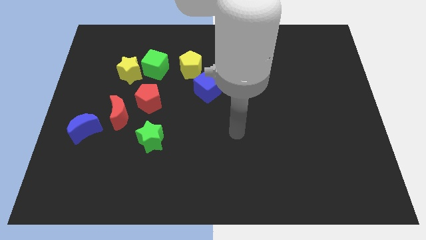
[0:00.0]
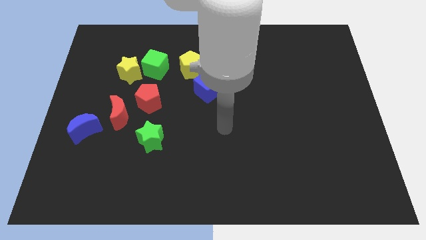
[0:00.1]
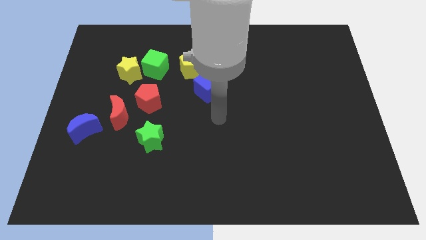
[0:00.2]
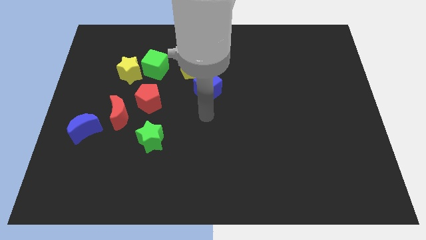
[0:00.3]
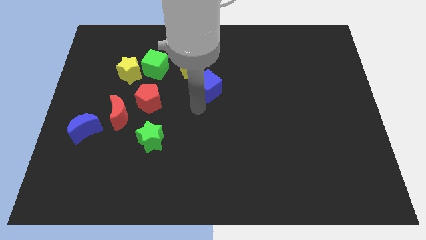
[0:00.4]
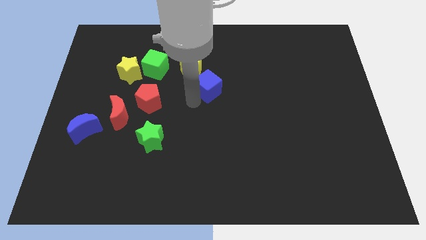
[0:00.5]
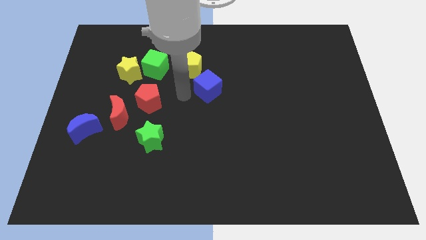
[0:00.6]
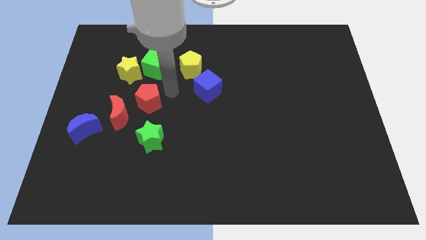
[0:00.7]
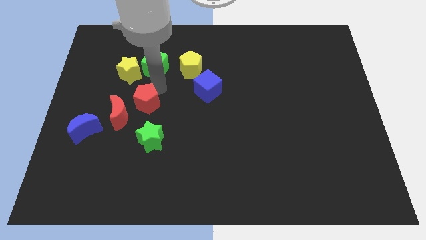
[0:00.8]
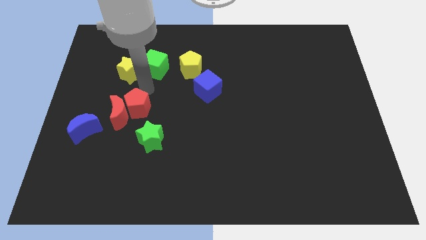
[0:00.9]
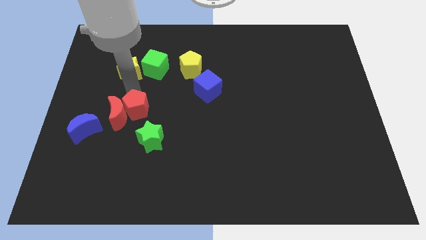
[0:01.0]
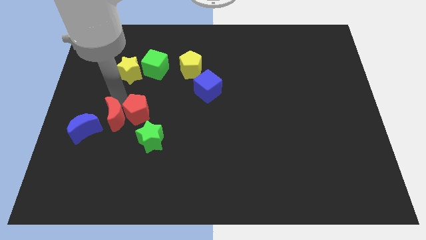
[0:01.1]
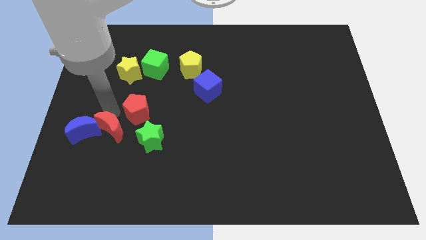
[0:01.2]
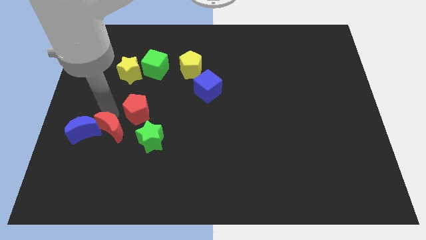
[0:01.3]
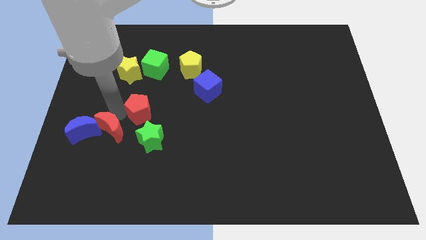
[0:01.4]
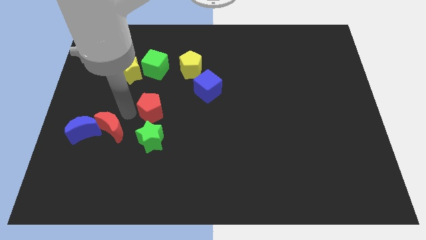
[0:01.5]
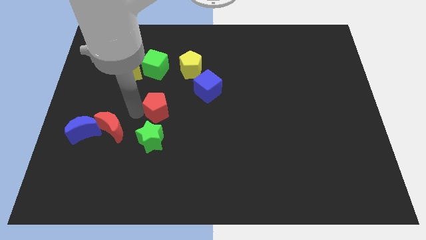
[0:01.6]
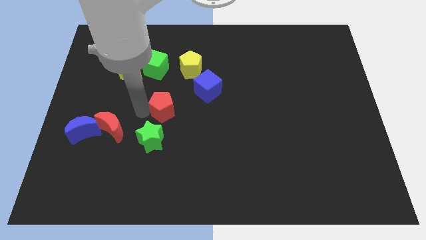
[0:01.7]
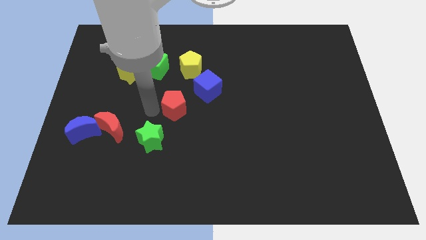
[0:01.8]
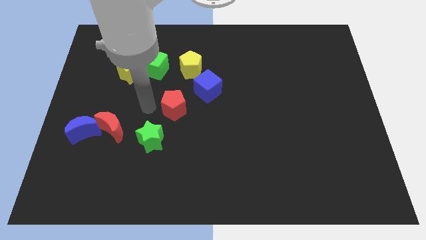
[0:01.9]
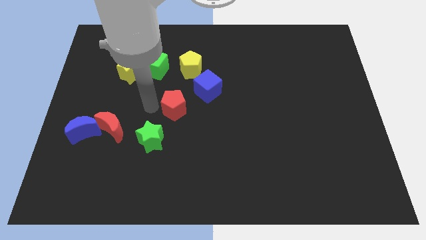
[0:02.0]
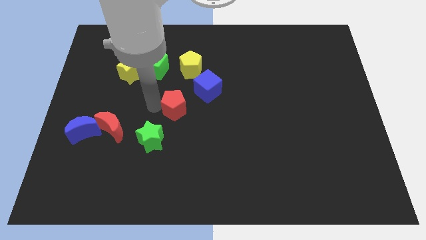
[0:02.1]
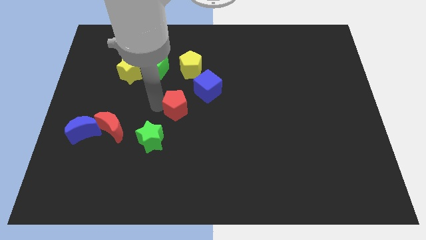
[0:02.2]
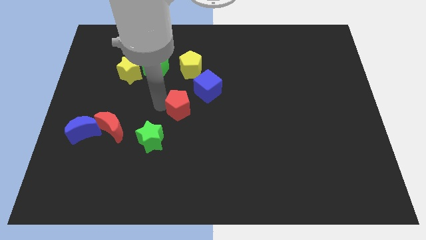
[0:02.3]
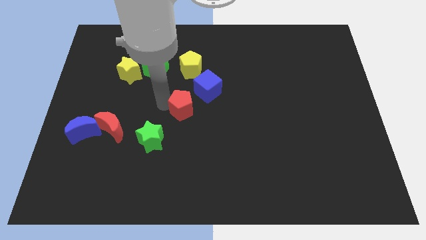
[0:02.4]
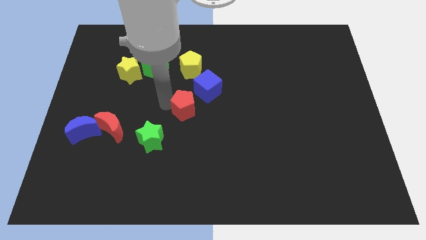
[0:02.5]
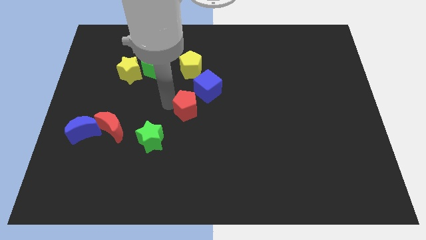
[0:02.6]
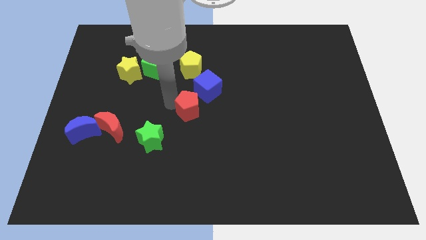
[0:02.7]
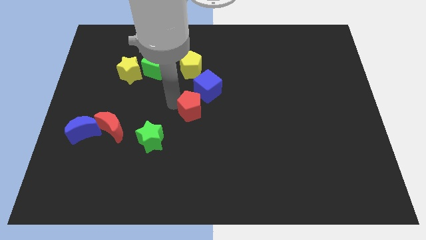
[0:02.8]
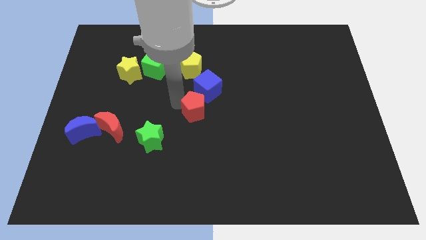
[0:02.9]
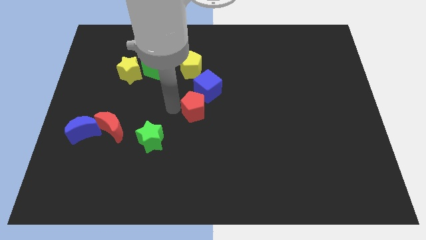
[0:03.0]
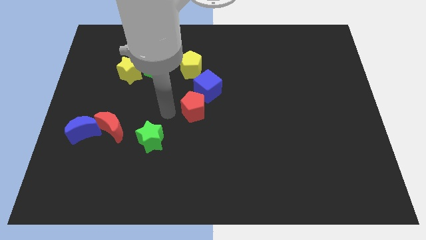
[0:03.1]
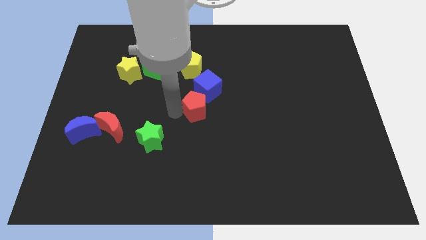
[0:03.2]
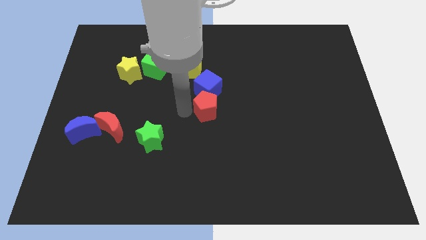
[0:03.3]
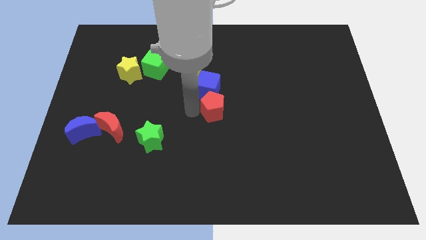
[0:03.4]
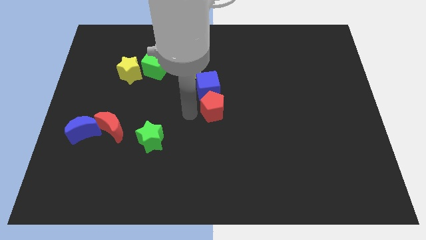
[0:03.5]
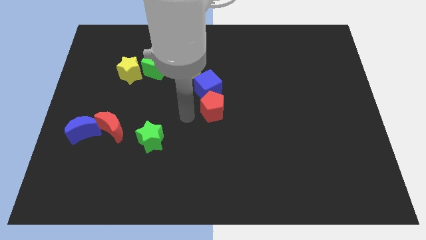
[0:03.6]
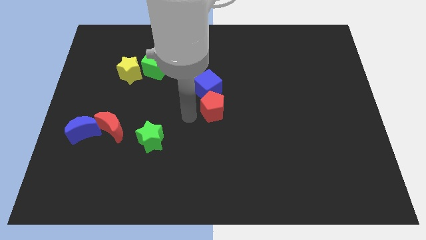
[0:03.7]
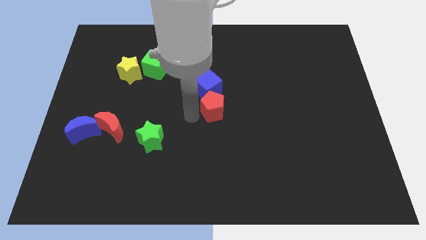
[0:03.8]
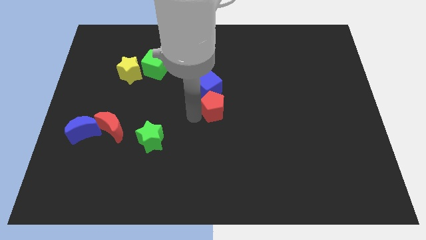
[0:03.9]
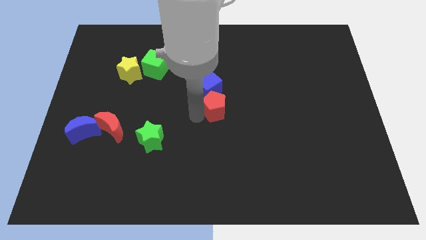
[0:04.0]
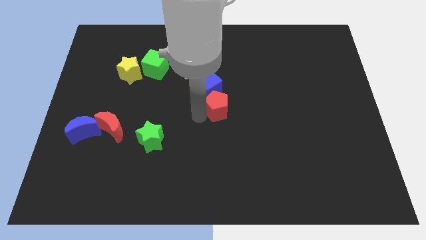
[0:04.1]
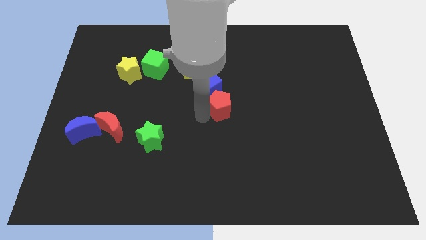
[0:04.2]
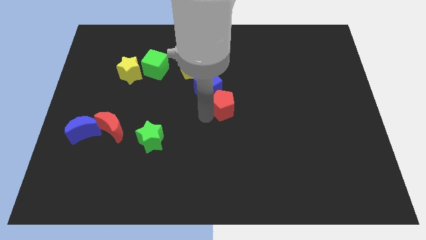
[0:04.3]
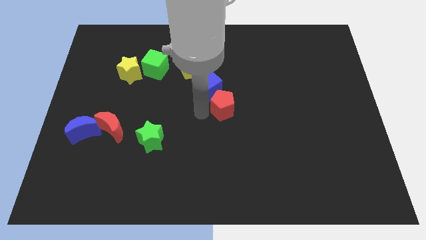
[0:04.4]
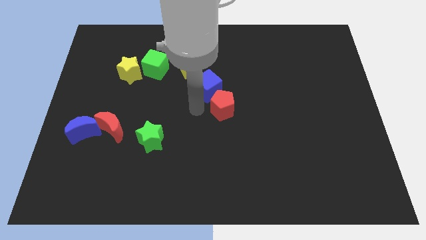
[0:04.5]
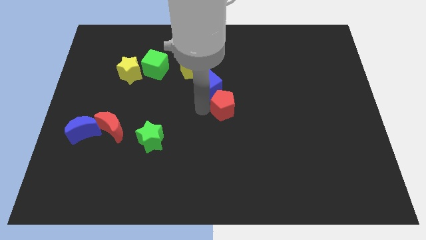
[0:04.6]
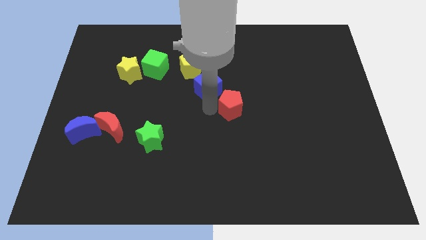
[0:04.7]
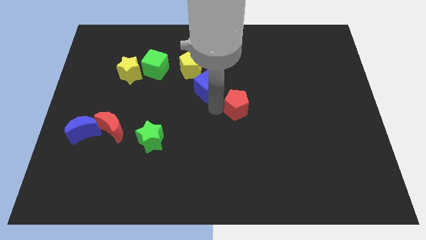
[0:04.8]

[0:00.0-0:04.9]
push the red pentagon right

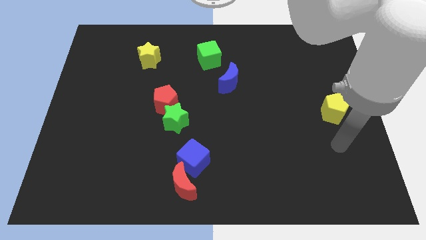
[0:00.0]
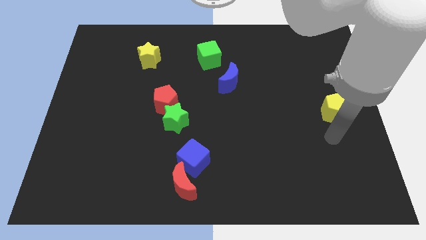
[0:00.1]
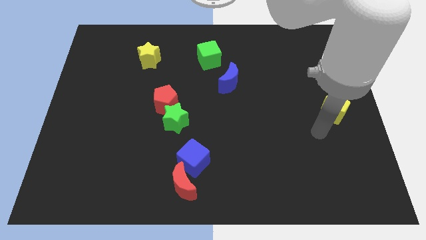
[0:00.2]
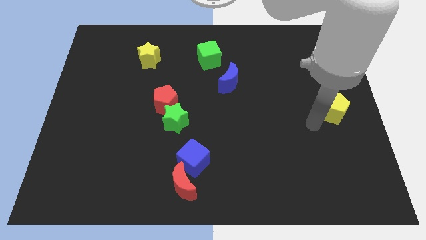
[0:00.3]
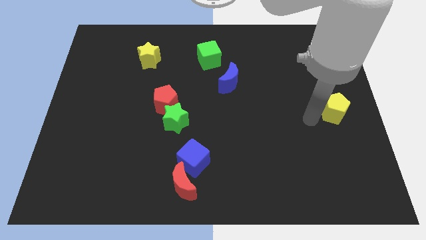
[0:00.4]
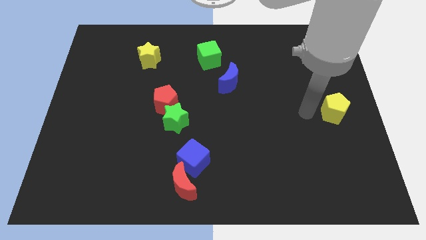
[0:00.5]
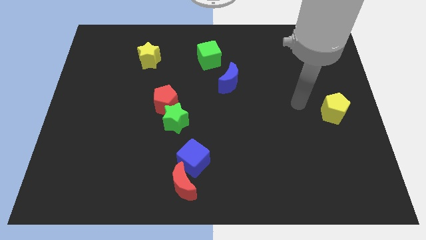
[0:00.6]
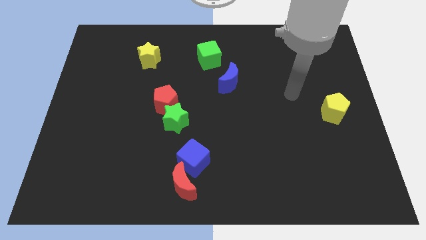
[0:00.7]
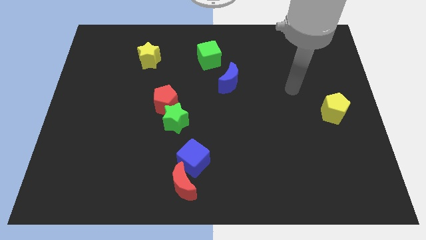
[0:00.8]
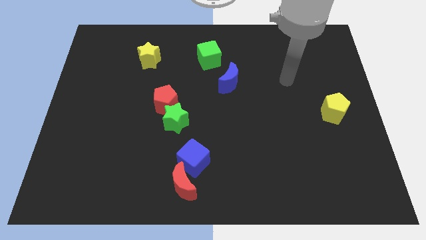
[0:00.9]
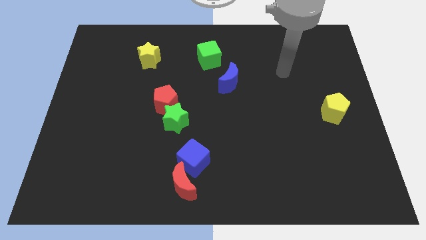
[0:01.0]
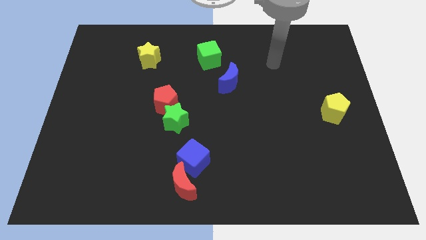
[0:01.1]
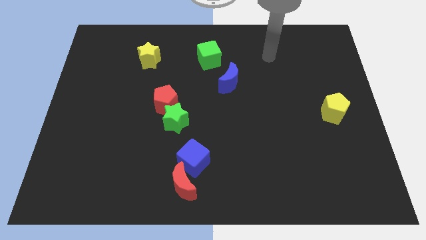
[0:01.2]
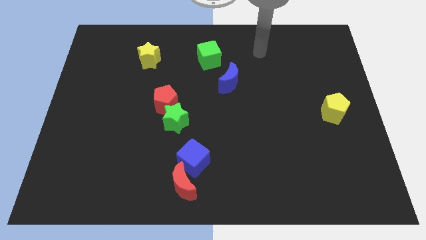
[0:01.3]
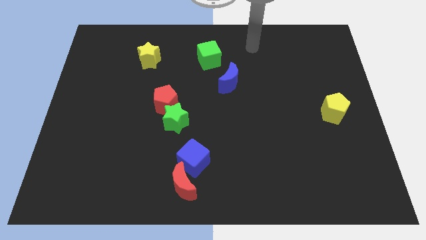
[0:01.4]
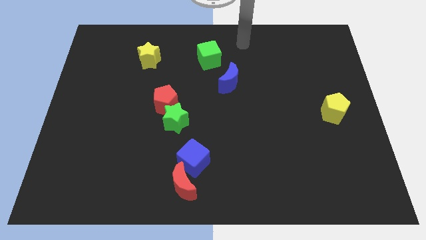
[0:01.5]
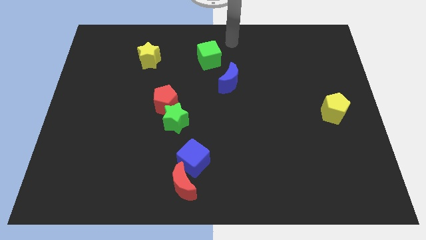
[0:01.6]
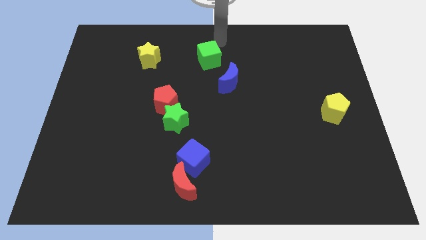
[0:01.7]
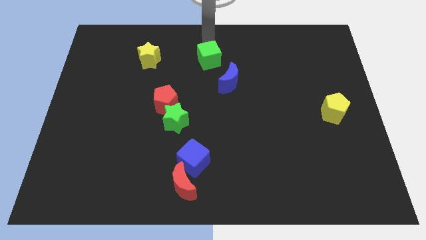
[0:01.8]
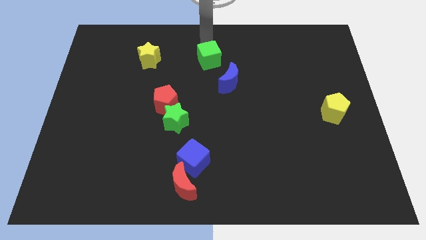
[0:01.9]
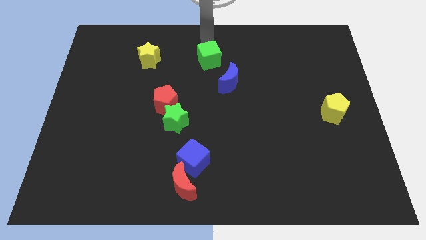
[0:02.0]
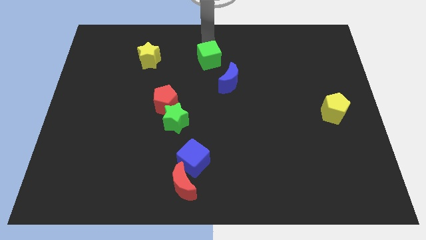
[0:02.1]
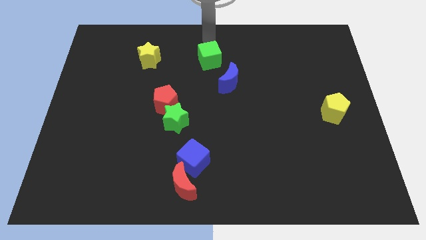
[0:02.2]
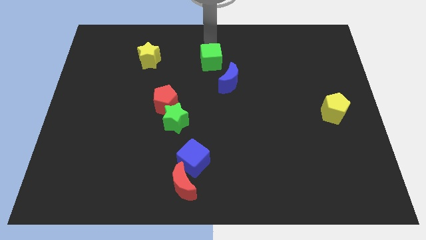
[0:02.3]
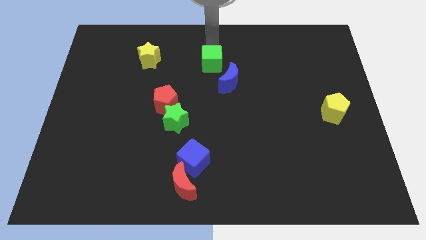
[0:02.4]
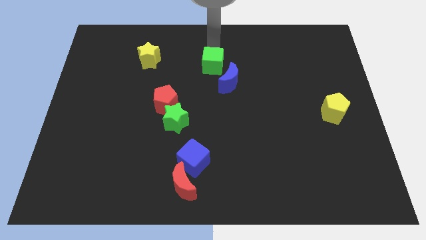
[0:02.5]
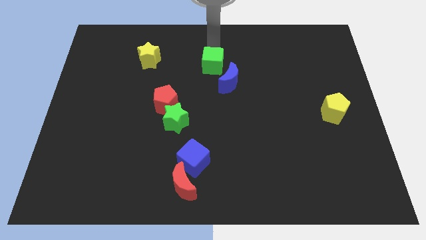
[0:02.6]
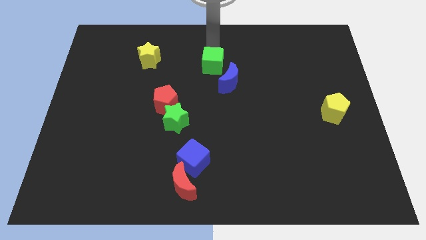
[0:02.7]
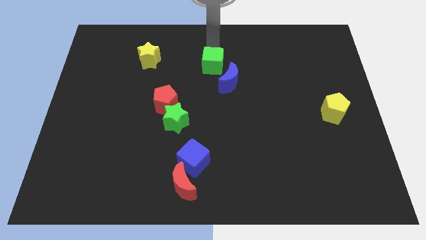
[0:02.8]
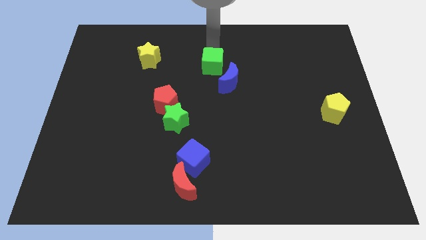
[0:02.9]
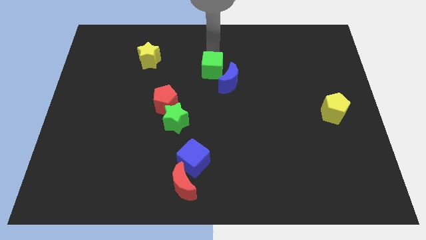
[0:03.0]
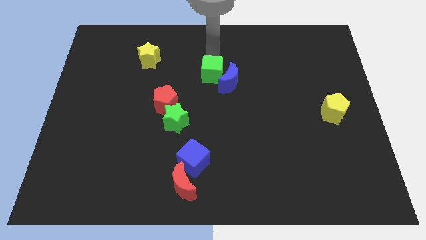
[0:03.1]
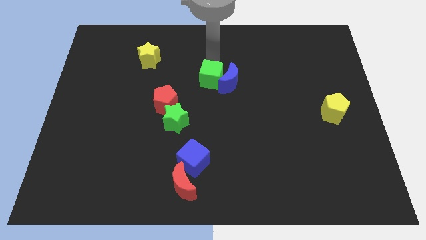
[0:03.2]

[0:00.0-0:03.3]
slide the green cube slightly down

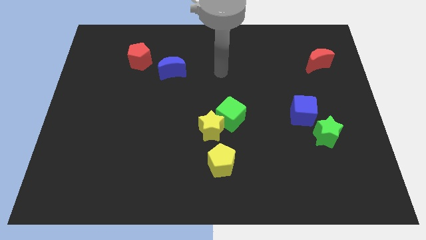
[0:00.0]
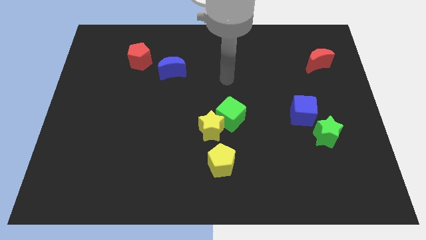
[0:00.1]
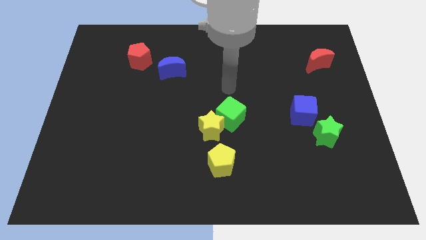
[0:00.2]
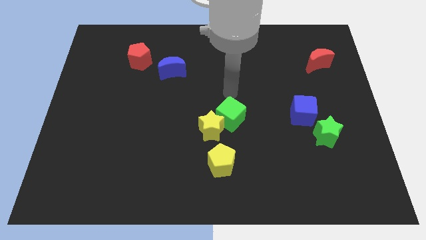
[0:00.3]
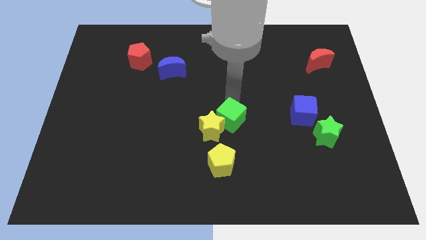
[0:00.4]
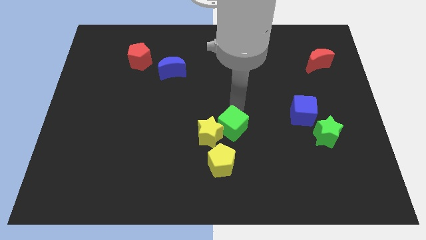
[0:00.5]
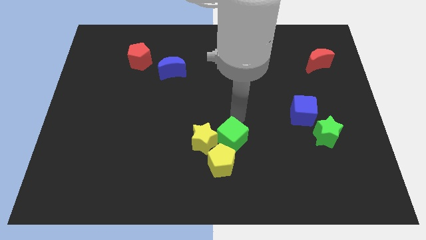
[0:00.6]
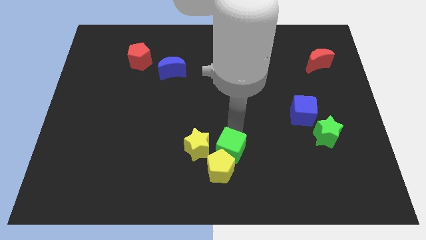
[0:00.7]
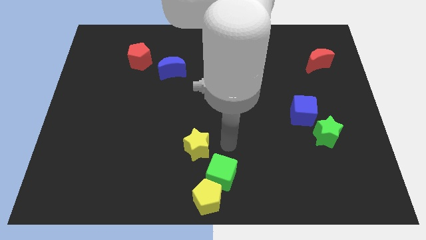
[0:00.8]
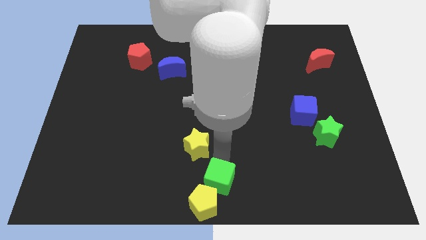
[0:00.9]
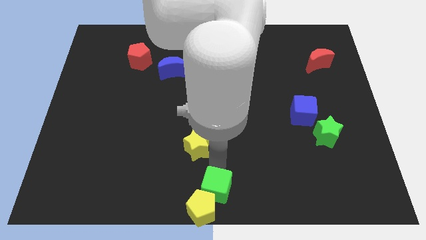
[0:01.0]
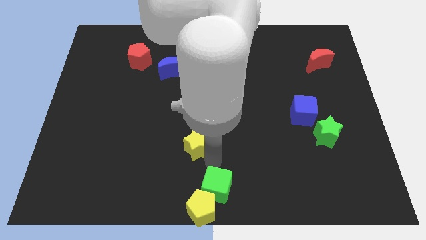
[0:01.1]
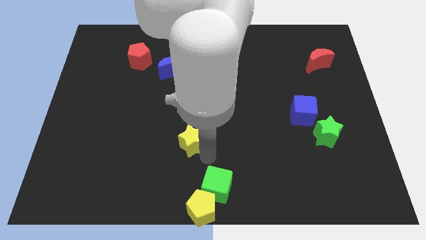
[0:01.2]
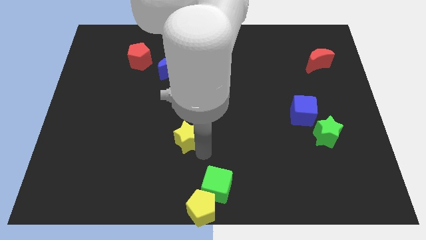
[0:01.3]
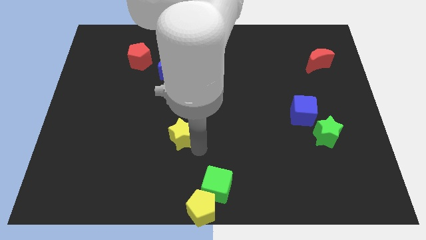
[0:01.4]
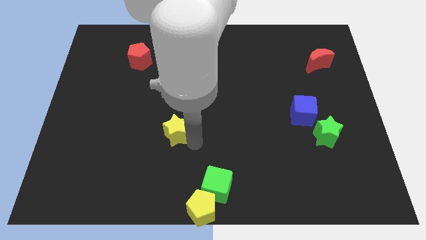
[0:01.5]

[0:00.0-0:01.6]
slightly slide the yellow star to the left
